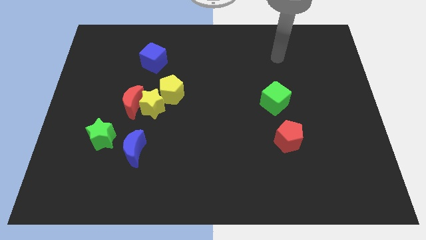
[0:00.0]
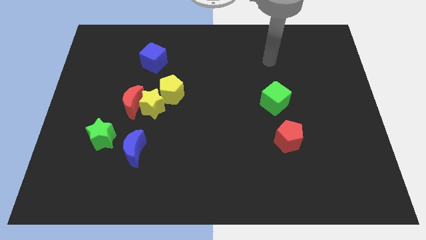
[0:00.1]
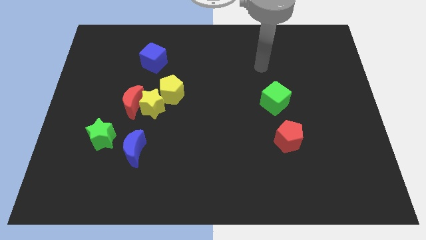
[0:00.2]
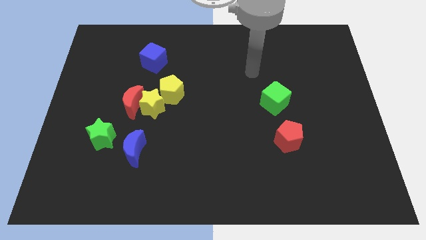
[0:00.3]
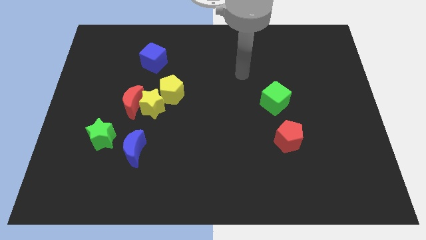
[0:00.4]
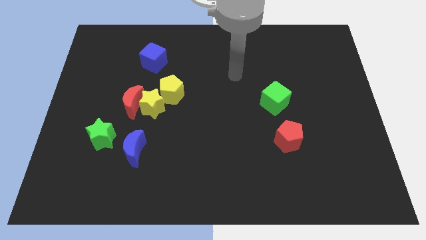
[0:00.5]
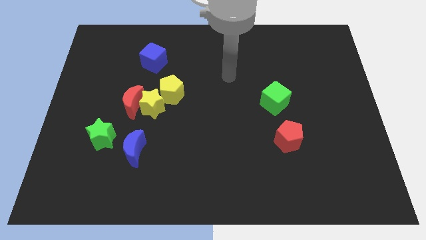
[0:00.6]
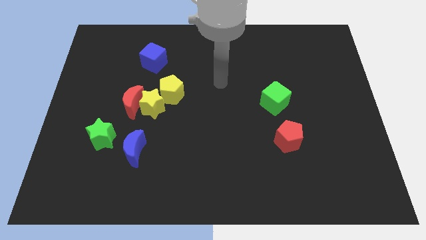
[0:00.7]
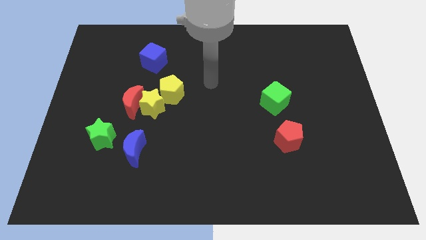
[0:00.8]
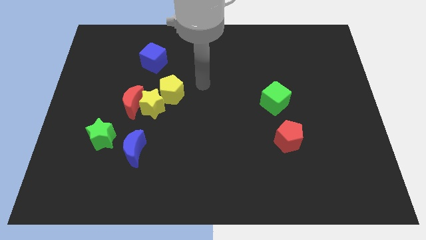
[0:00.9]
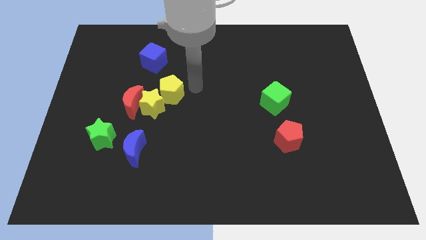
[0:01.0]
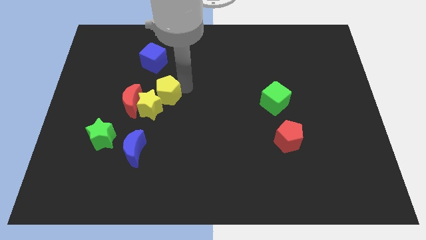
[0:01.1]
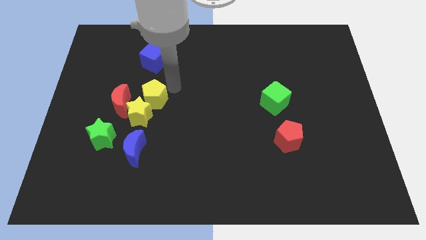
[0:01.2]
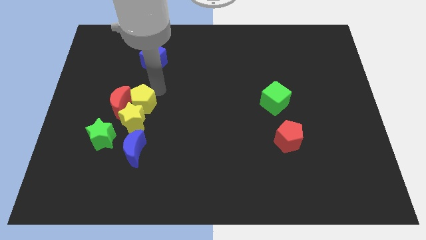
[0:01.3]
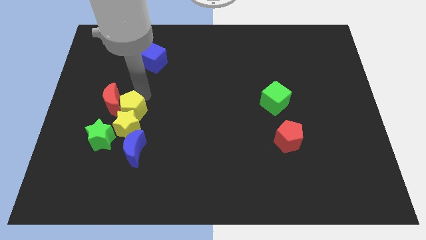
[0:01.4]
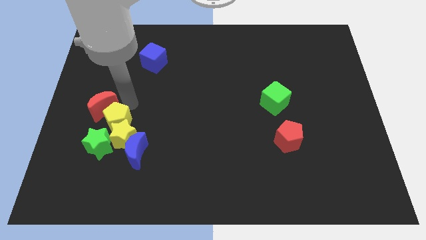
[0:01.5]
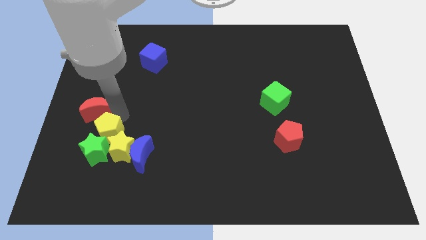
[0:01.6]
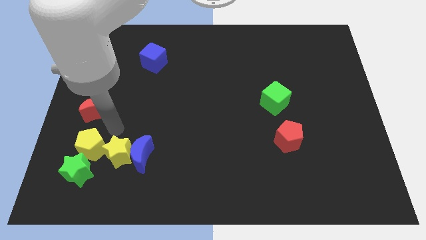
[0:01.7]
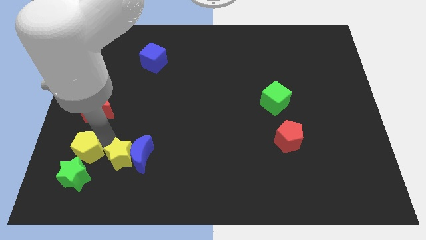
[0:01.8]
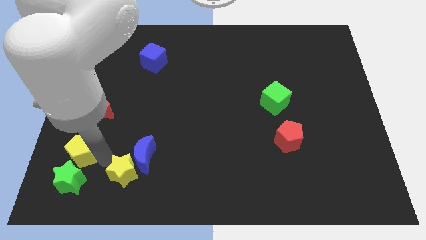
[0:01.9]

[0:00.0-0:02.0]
separate the yellow star from the red moon and yellow pentagon

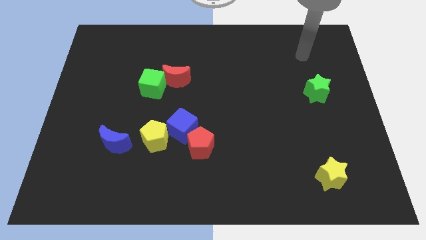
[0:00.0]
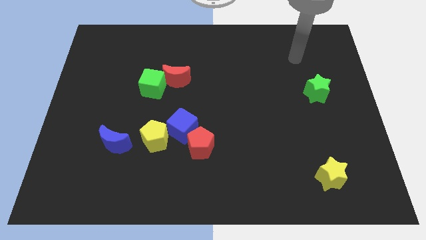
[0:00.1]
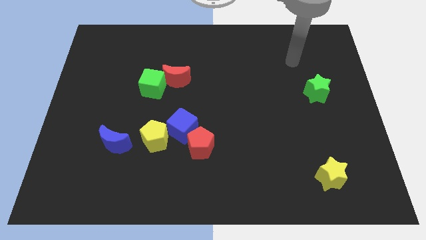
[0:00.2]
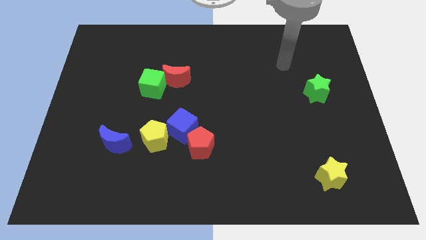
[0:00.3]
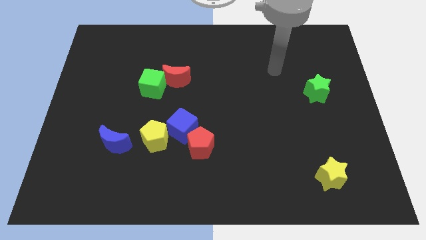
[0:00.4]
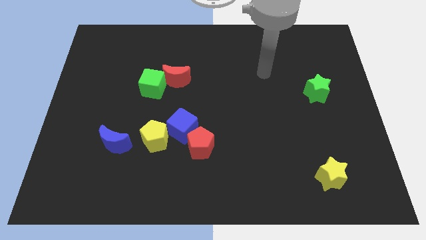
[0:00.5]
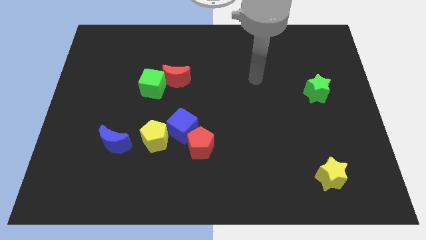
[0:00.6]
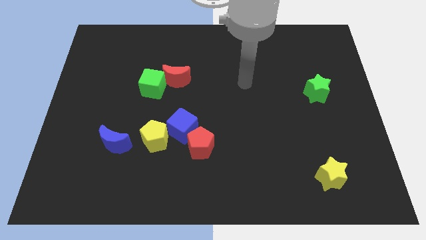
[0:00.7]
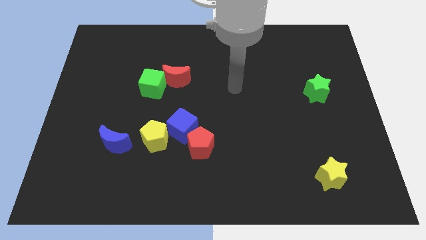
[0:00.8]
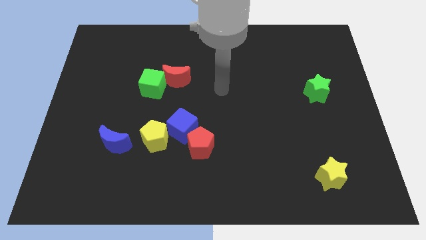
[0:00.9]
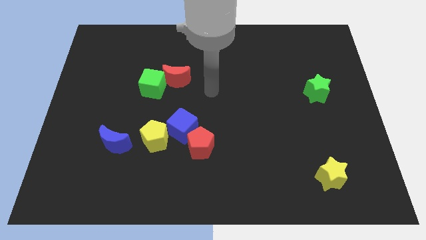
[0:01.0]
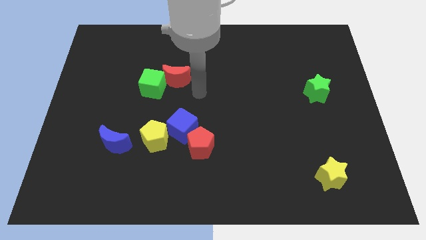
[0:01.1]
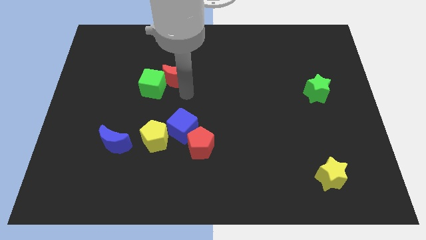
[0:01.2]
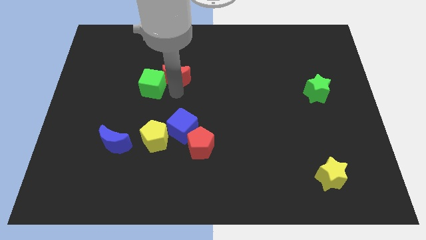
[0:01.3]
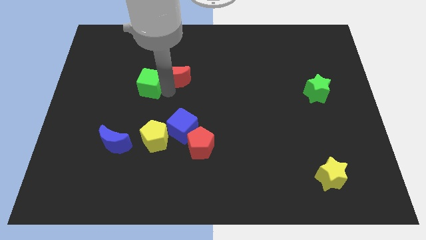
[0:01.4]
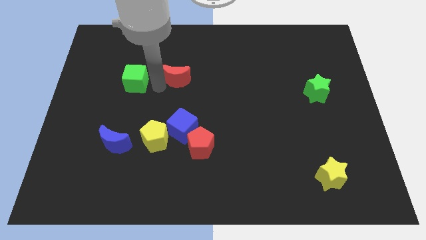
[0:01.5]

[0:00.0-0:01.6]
separate the red moon from the green cube

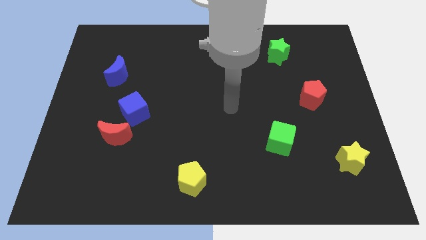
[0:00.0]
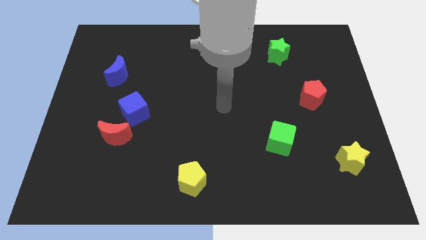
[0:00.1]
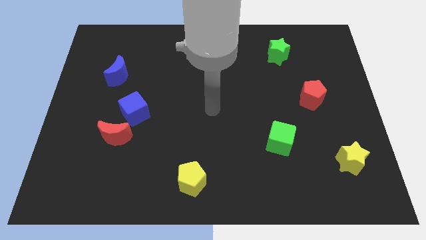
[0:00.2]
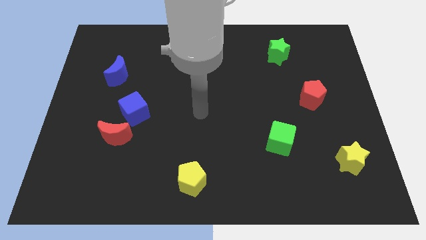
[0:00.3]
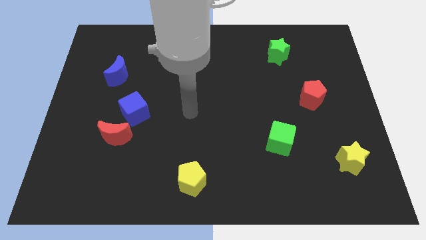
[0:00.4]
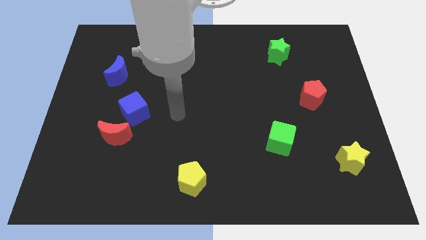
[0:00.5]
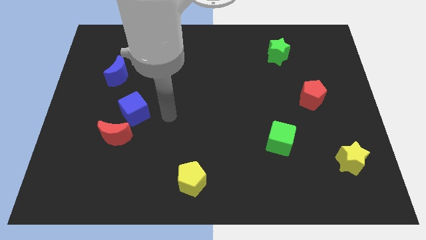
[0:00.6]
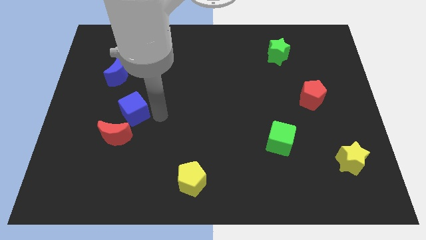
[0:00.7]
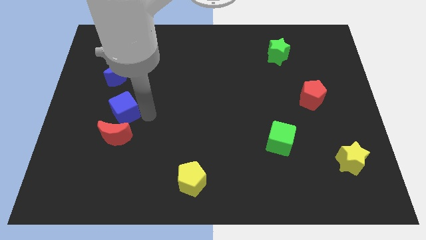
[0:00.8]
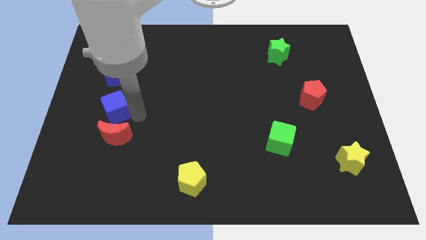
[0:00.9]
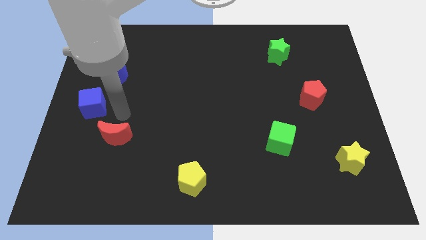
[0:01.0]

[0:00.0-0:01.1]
pull the red moon apart from the blue cube

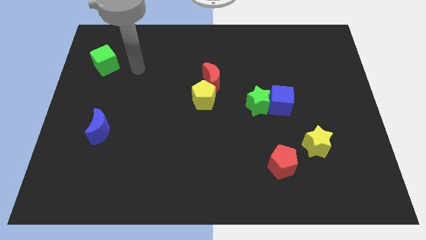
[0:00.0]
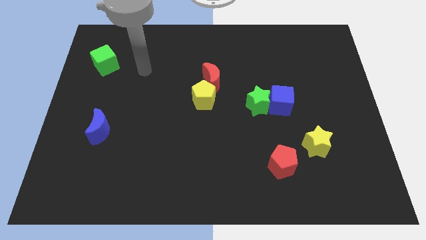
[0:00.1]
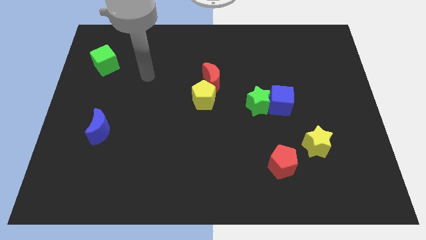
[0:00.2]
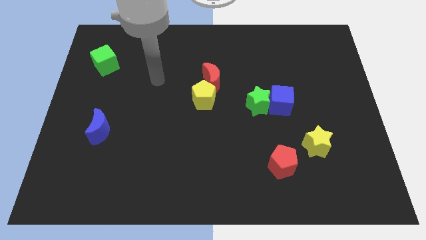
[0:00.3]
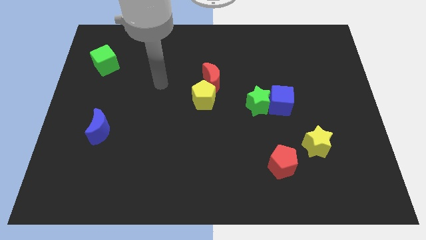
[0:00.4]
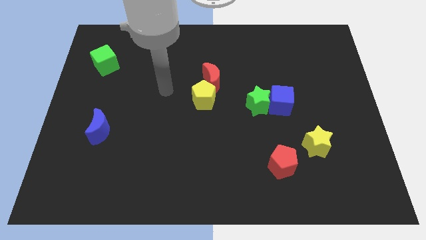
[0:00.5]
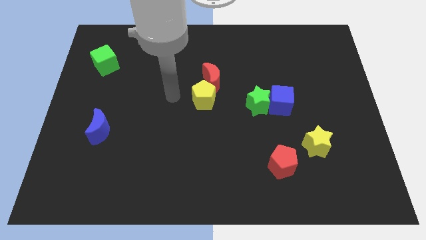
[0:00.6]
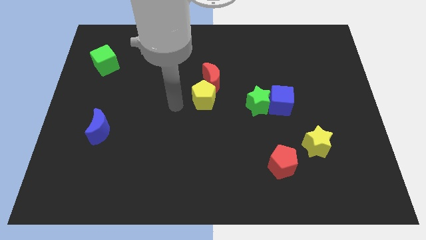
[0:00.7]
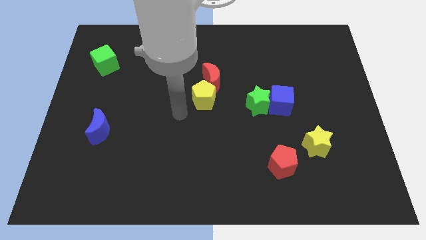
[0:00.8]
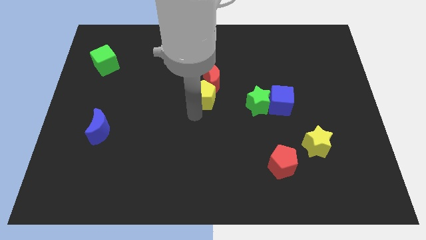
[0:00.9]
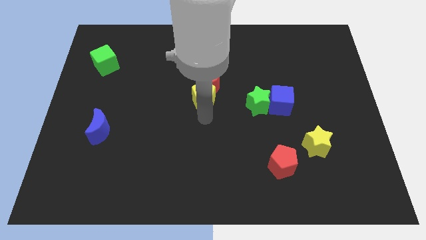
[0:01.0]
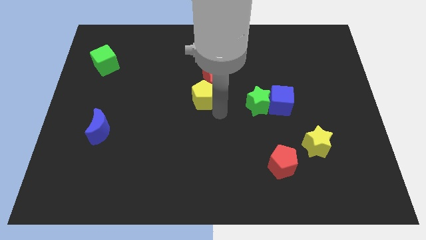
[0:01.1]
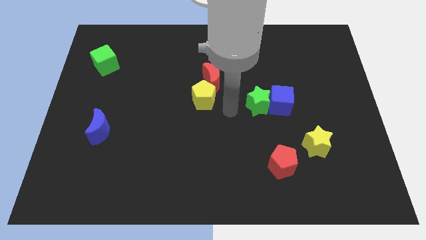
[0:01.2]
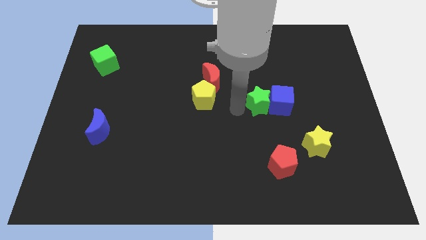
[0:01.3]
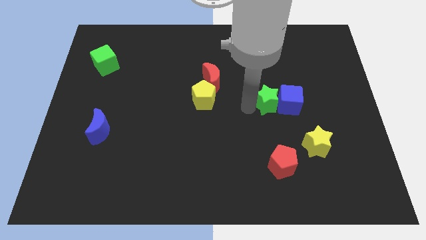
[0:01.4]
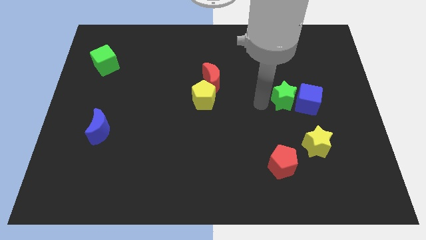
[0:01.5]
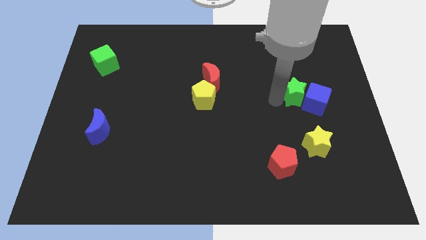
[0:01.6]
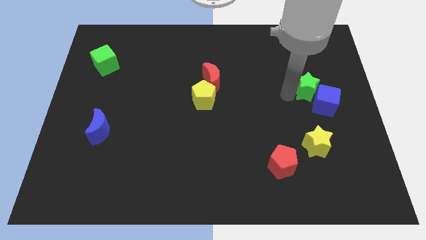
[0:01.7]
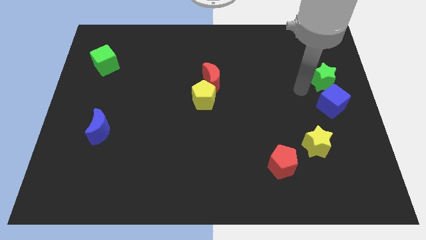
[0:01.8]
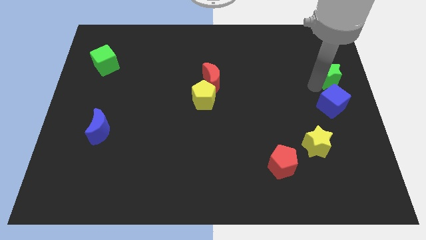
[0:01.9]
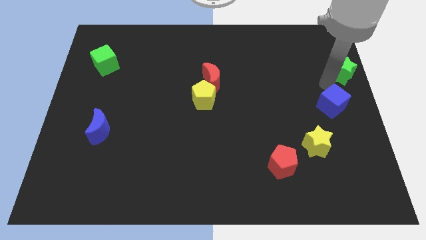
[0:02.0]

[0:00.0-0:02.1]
move the blue cube away from the green star

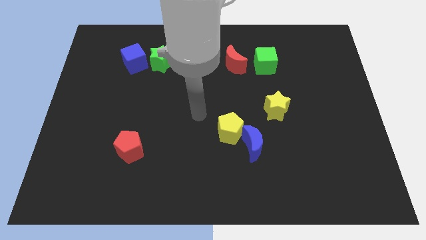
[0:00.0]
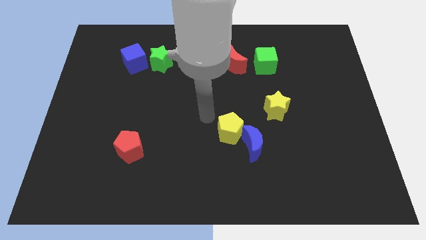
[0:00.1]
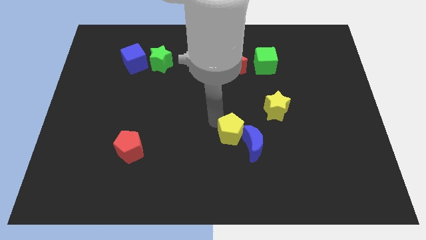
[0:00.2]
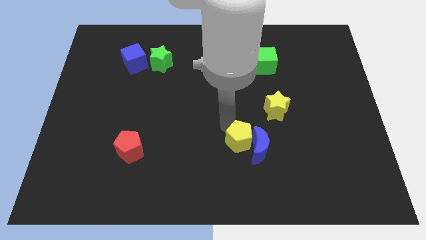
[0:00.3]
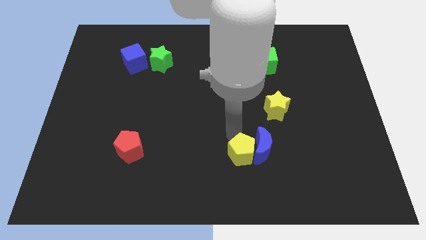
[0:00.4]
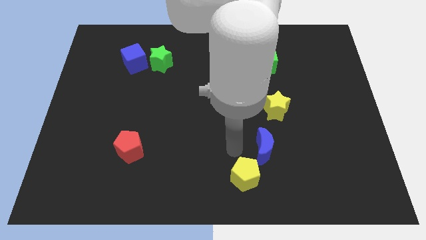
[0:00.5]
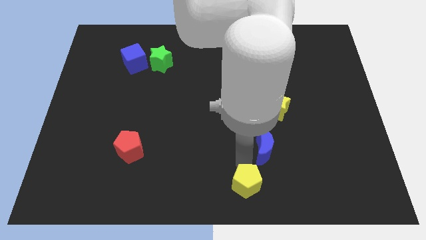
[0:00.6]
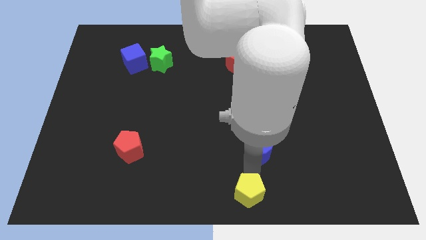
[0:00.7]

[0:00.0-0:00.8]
separate the blue moon from the yellow pentagon

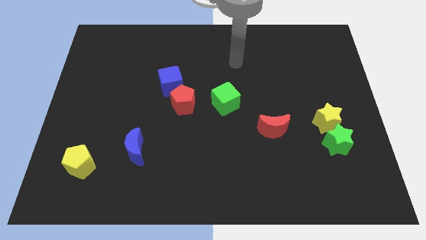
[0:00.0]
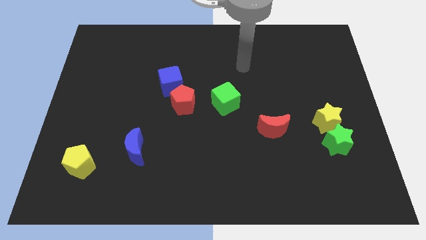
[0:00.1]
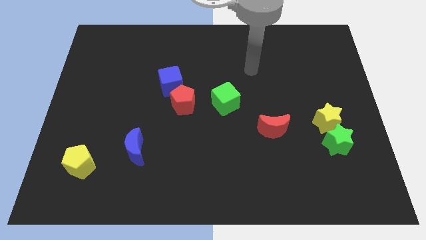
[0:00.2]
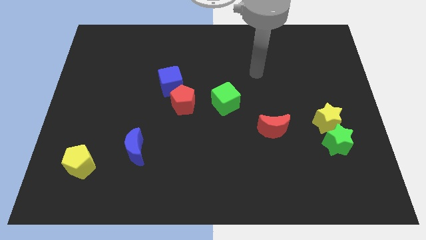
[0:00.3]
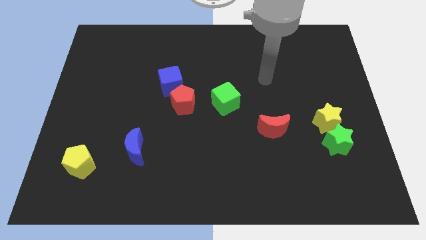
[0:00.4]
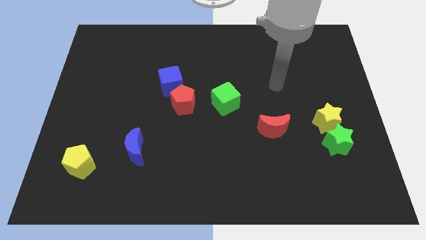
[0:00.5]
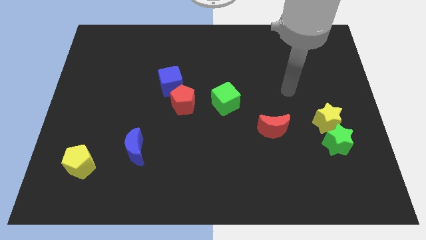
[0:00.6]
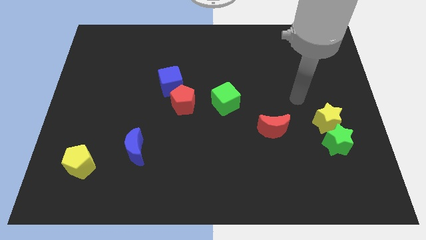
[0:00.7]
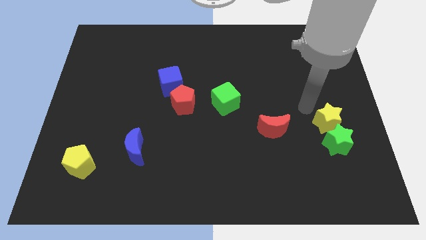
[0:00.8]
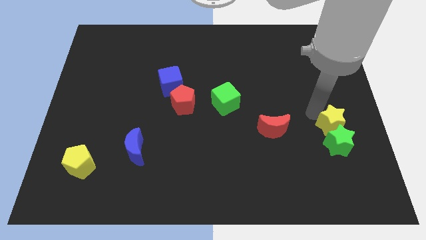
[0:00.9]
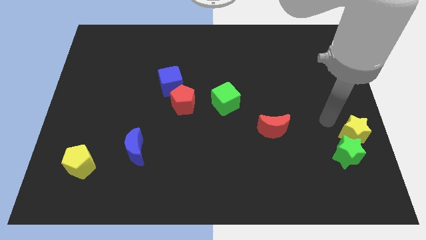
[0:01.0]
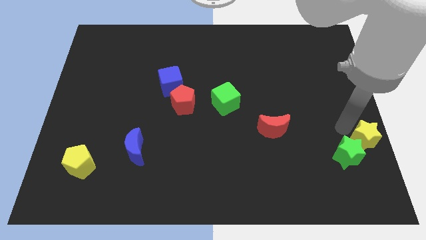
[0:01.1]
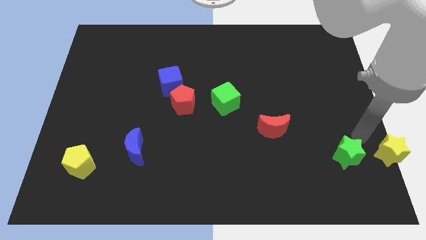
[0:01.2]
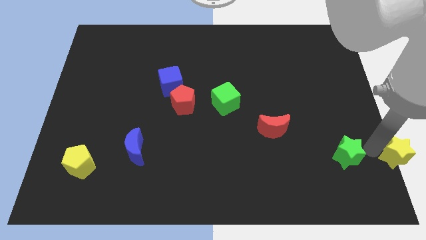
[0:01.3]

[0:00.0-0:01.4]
pull the green star apart from the yellow star

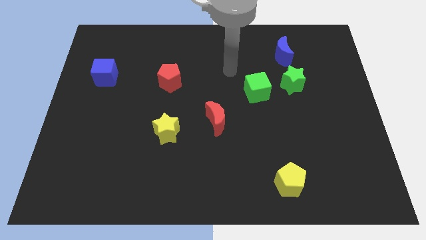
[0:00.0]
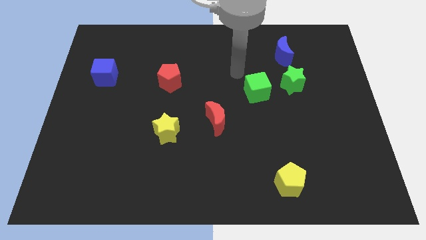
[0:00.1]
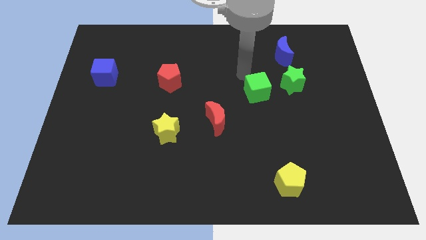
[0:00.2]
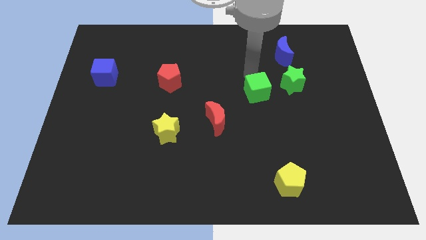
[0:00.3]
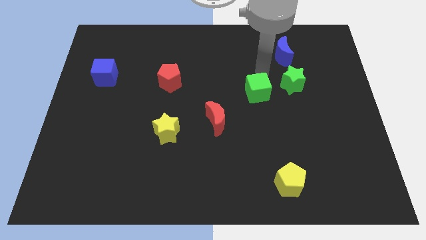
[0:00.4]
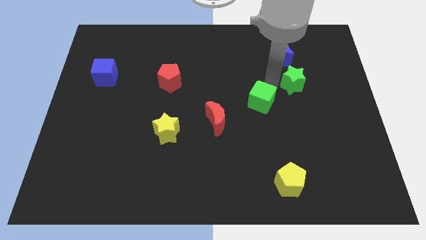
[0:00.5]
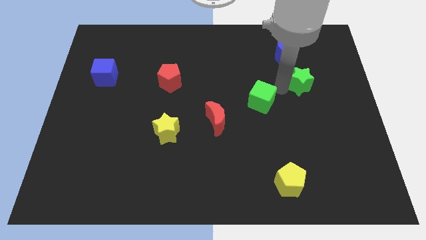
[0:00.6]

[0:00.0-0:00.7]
separate the green cube from the green star
